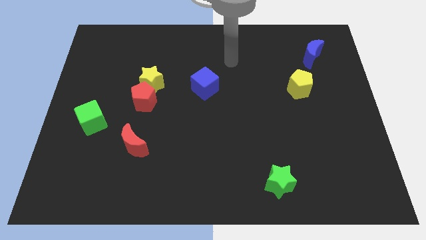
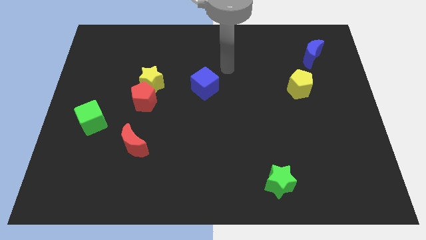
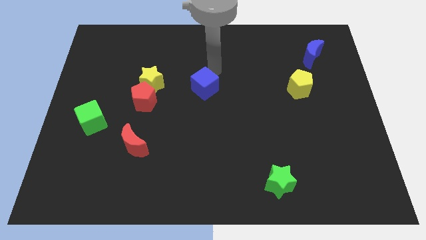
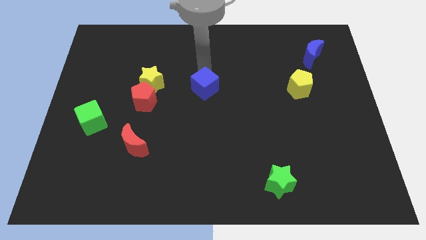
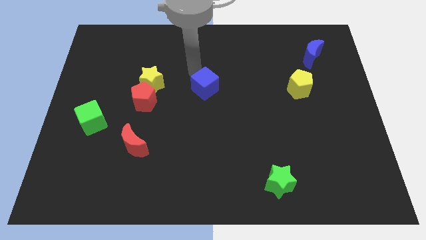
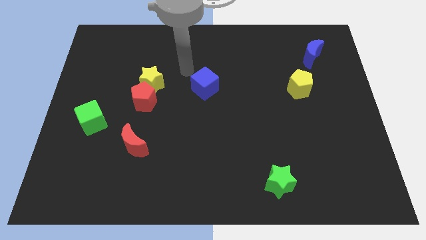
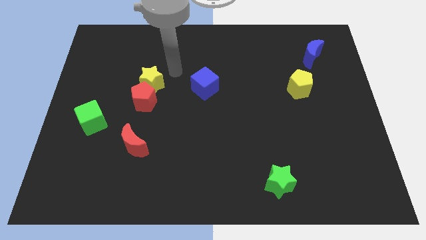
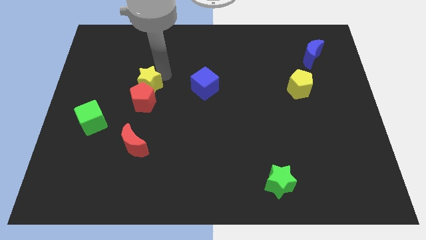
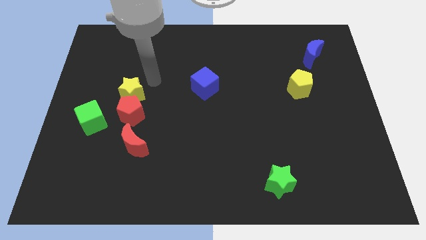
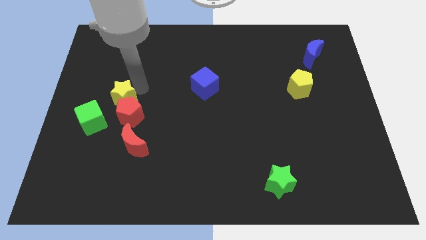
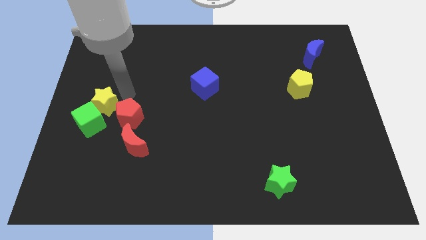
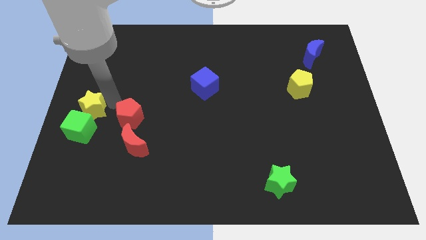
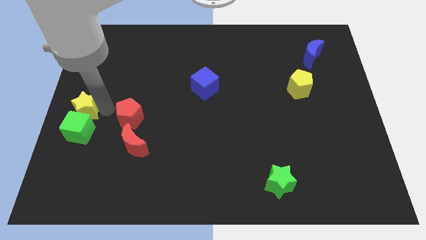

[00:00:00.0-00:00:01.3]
move the red pentagon away from the yellow star

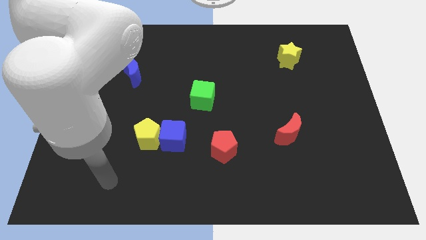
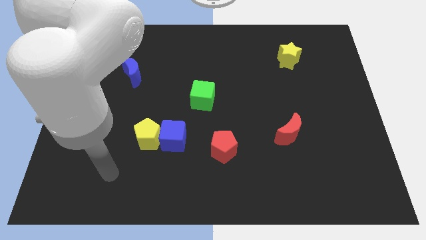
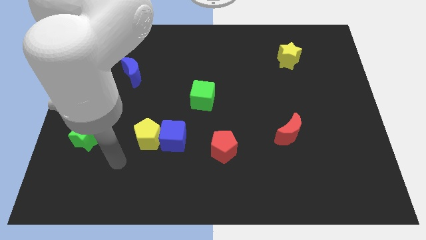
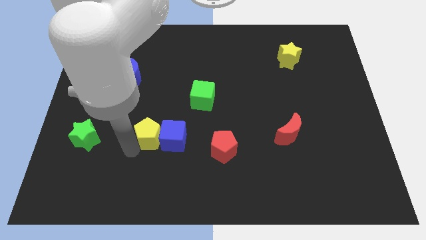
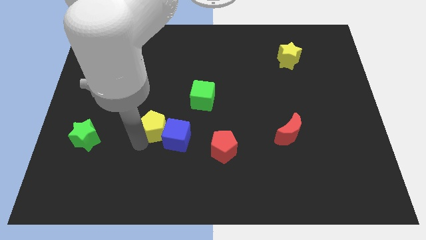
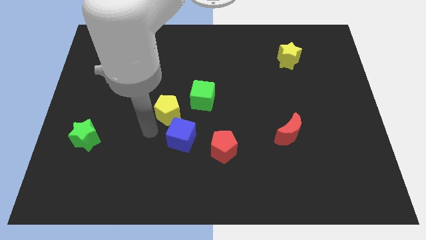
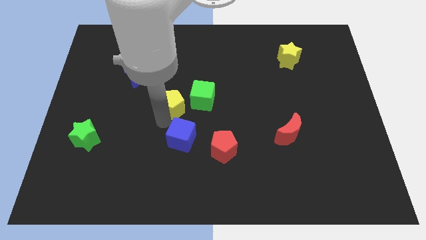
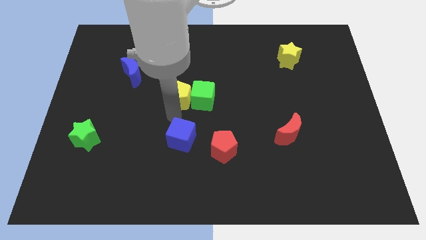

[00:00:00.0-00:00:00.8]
move the blue cube away from the yellow pentagon

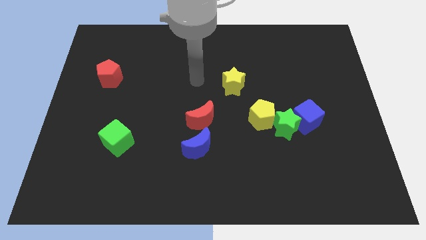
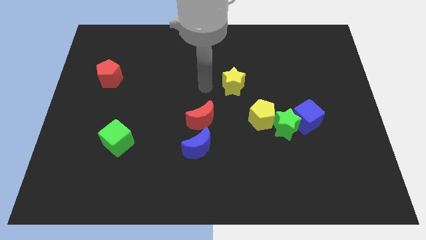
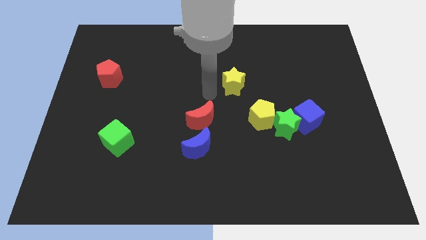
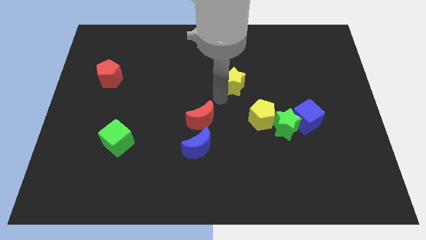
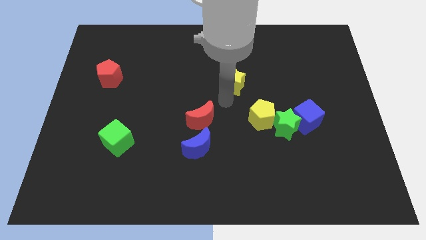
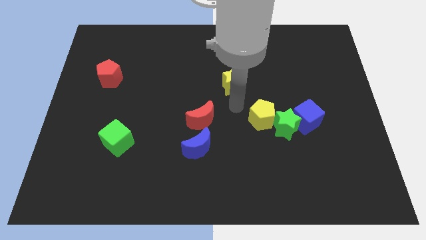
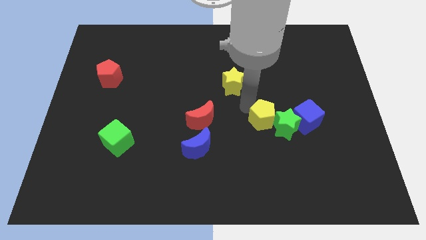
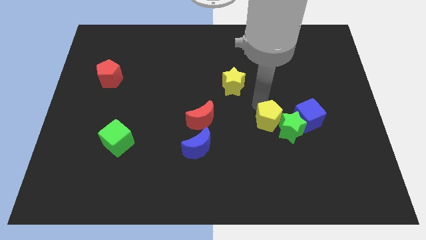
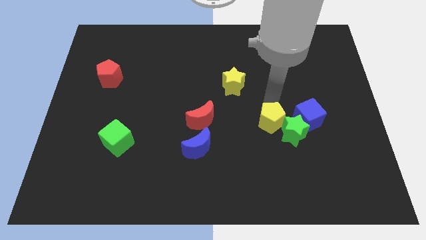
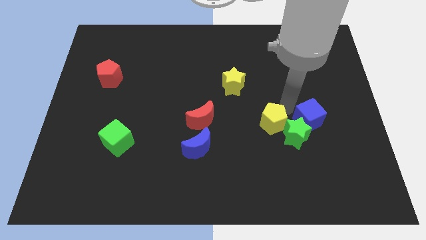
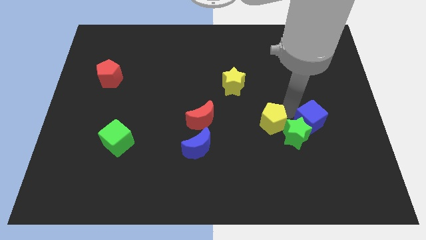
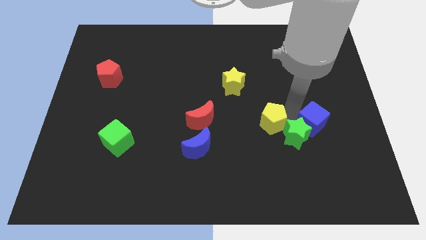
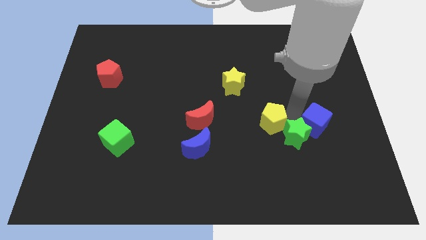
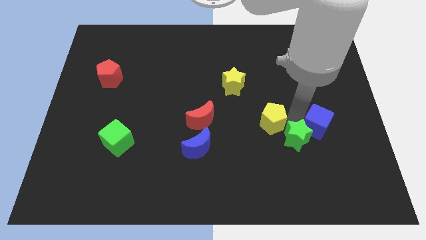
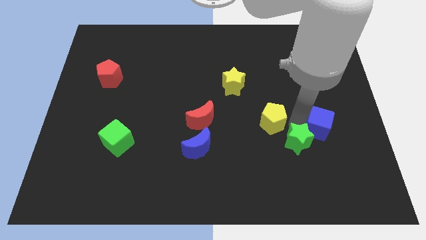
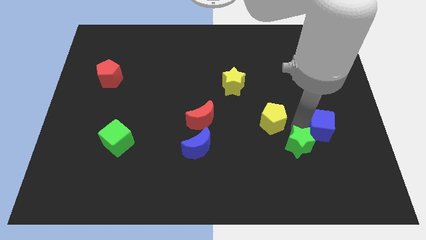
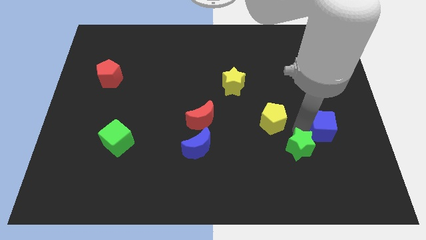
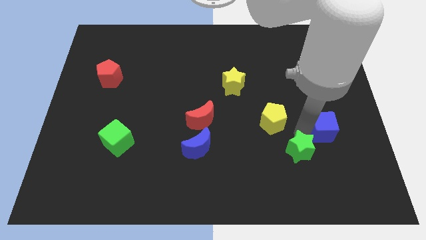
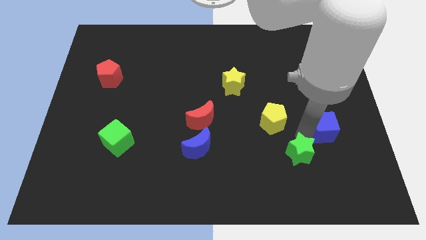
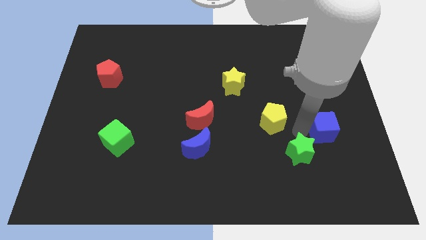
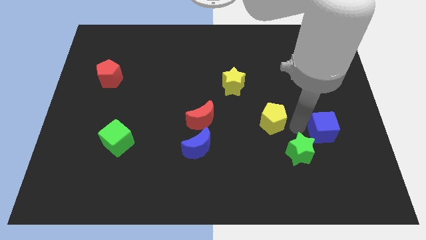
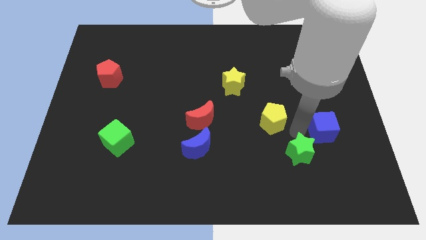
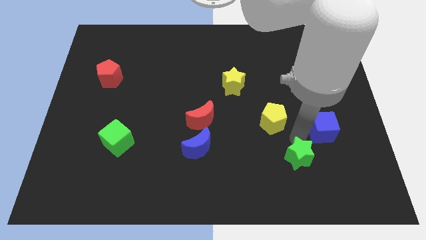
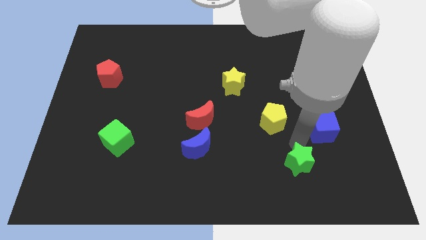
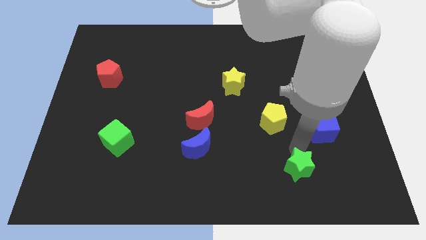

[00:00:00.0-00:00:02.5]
move the green star away from the blue cube and yellow pentagon

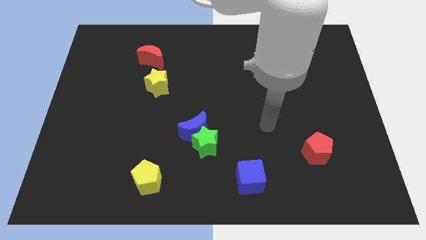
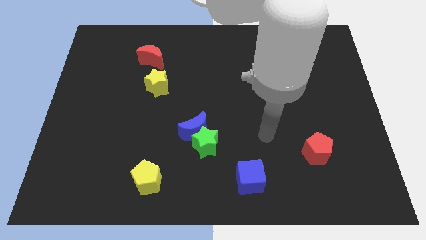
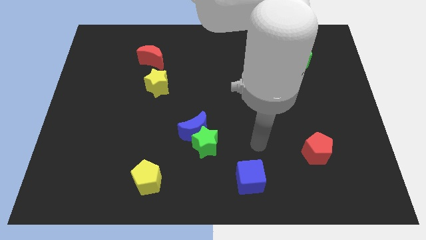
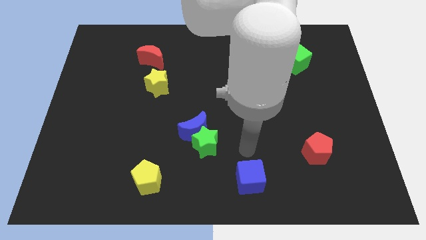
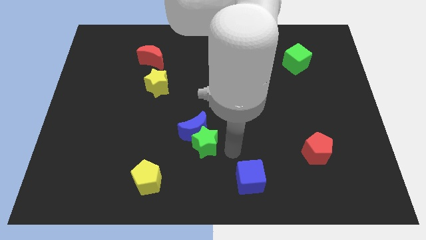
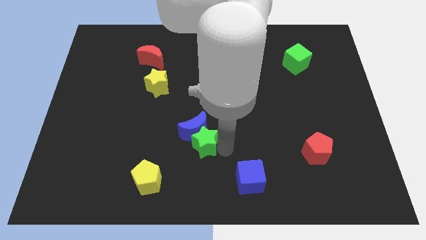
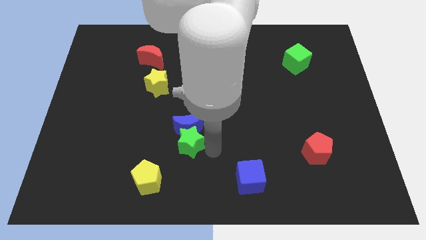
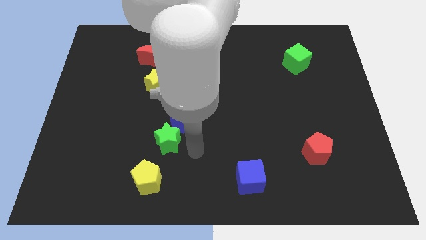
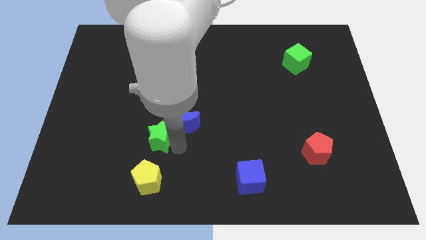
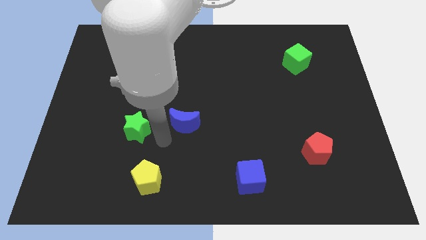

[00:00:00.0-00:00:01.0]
separate the blue moon from the green star

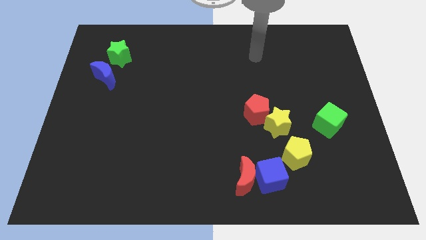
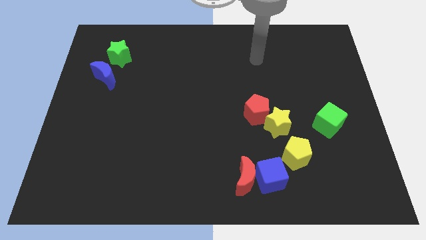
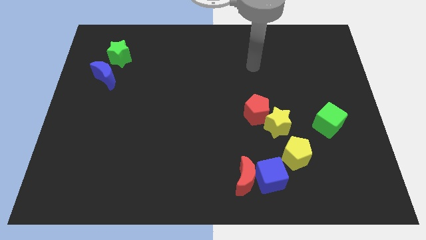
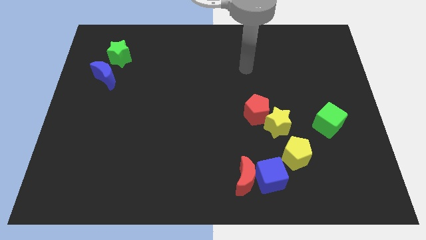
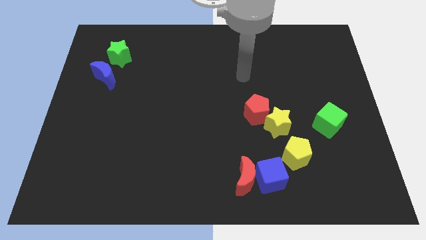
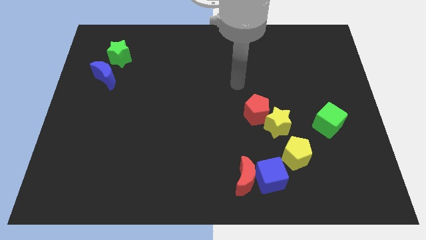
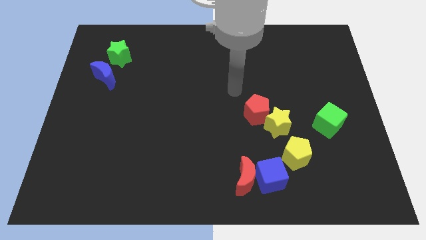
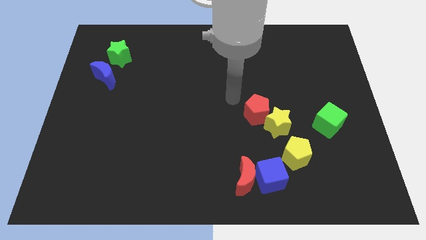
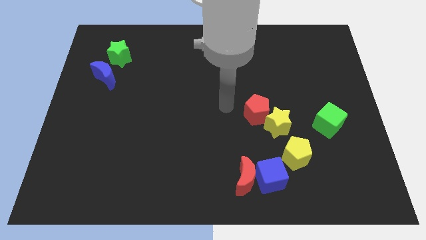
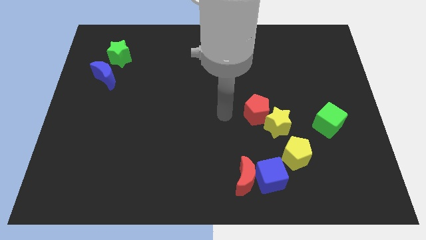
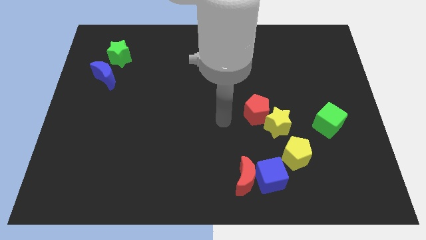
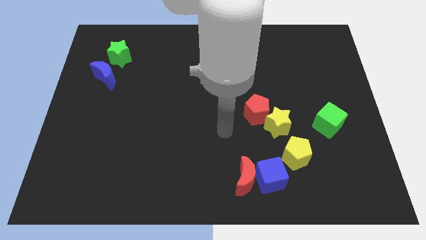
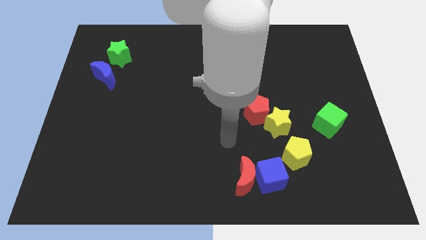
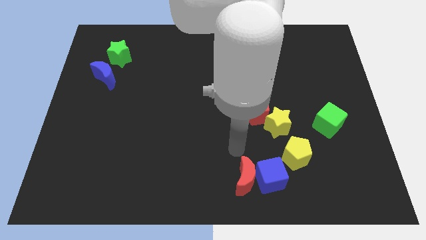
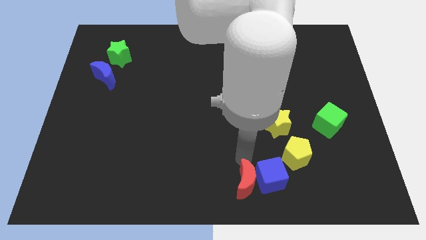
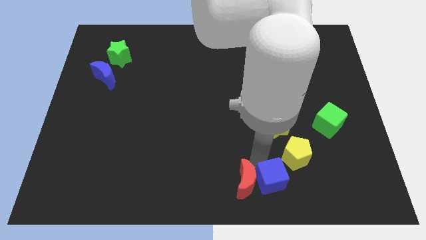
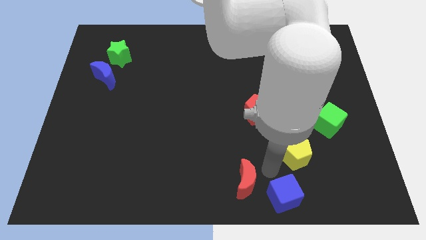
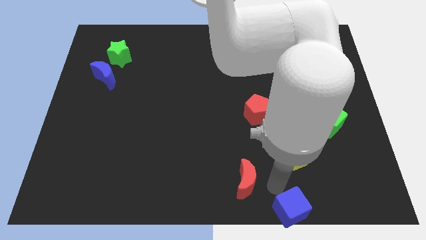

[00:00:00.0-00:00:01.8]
separate the red moon from the blue cube

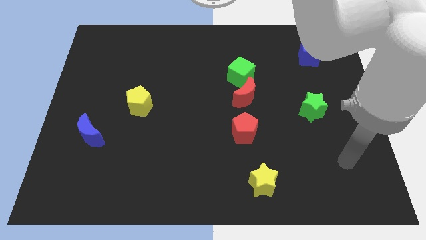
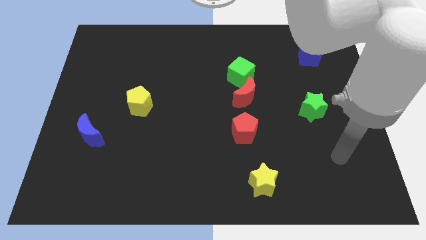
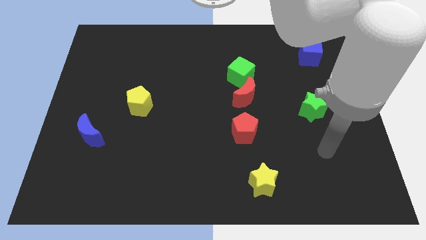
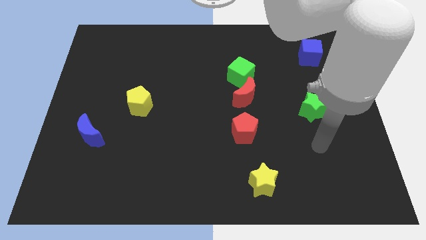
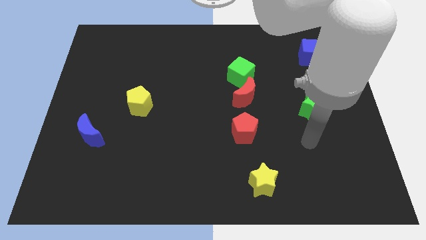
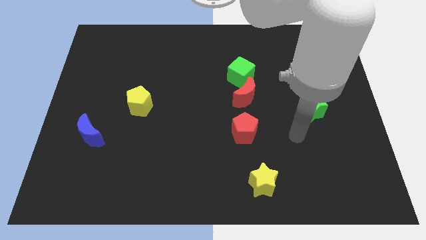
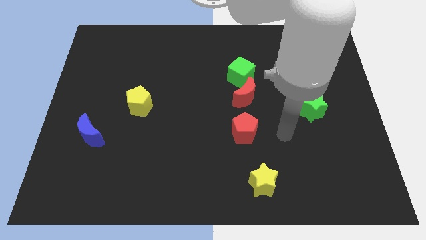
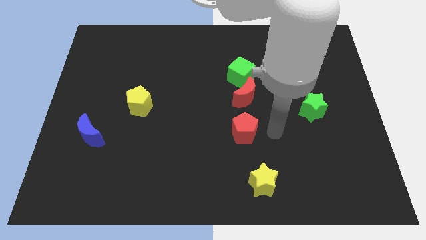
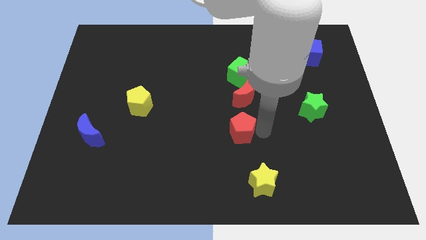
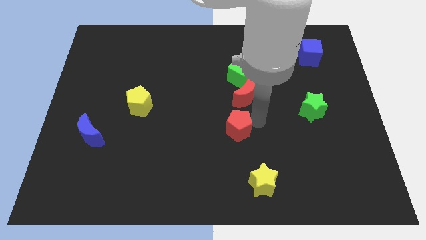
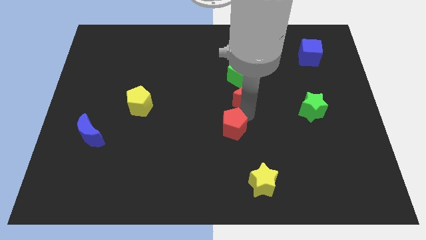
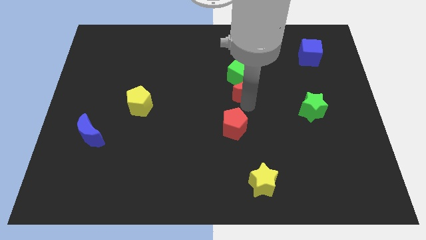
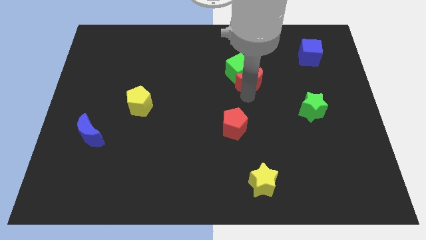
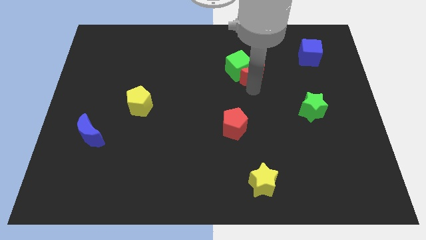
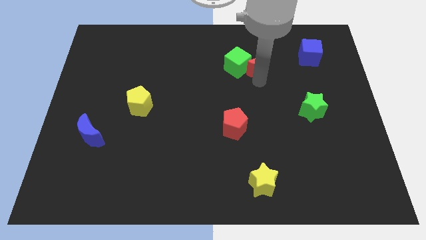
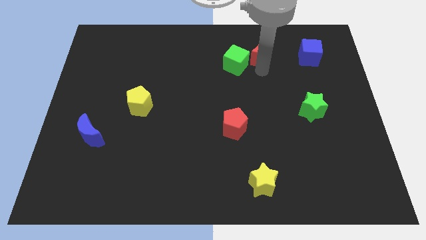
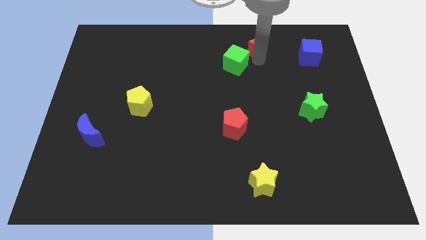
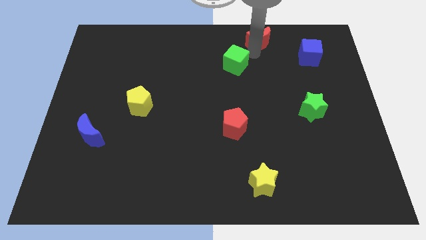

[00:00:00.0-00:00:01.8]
pull the green cube apart from the red moon

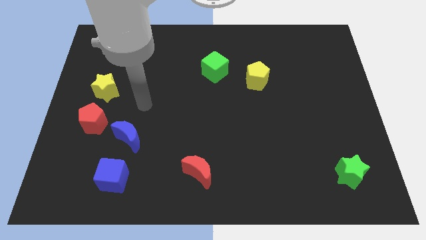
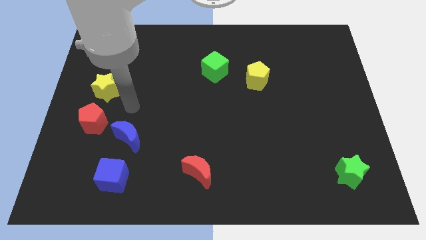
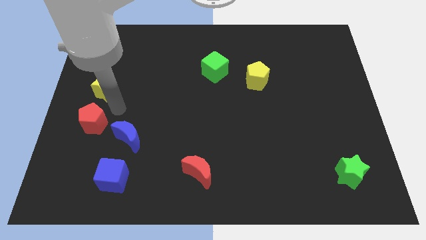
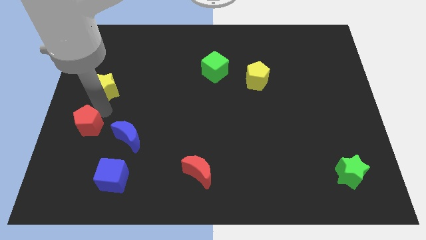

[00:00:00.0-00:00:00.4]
move the yellow star away from the red pentagon
